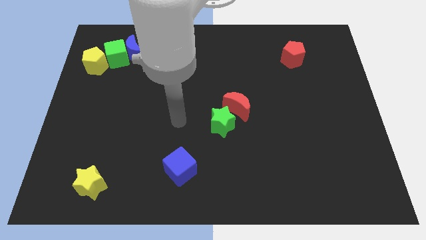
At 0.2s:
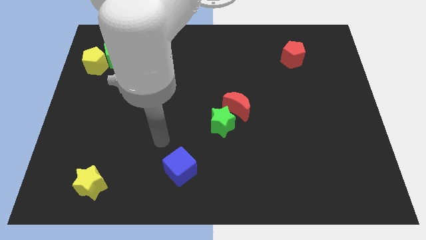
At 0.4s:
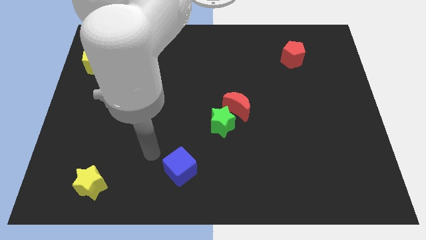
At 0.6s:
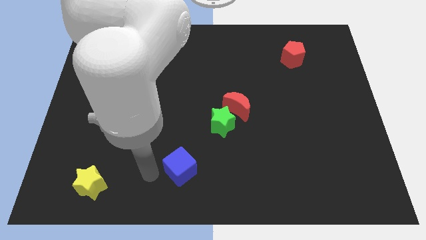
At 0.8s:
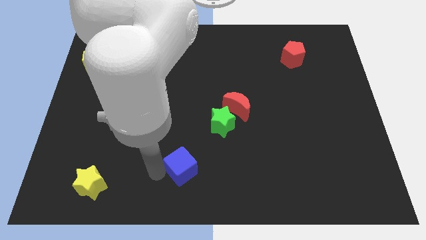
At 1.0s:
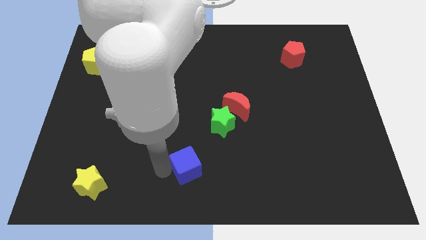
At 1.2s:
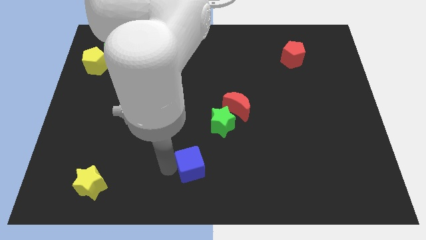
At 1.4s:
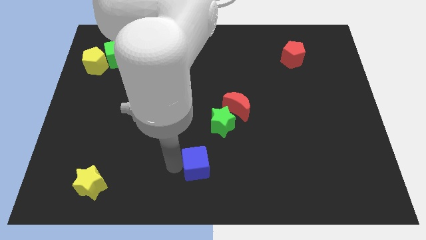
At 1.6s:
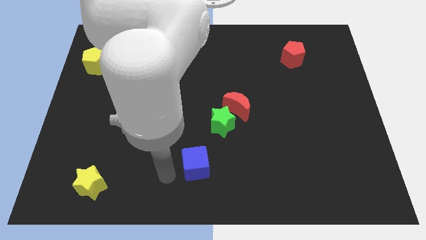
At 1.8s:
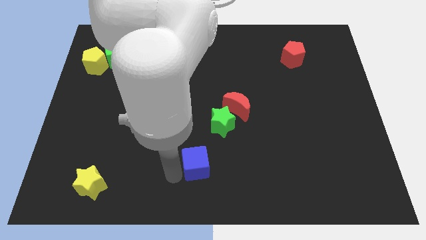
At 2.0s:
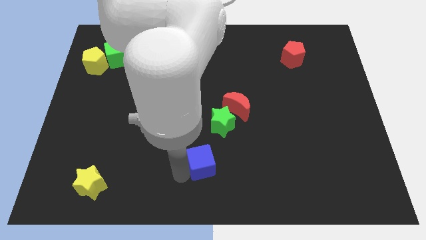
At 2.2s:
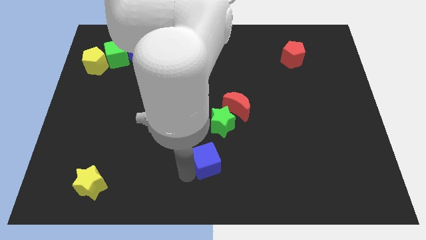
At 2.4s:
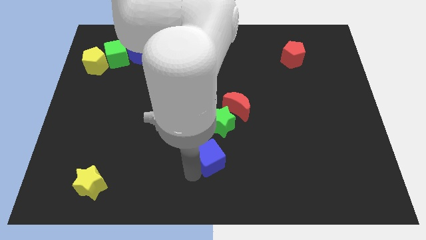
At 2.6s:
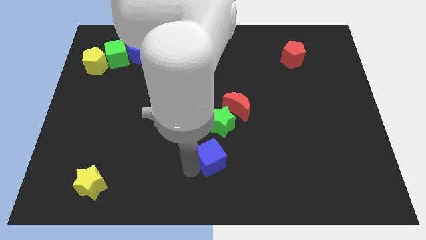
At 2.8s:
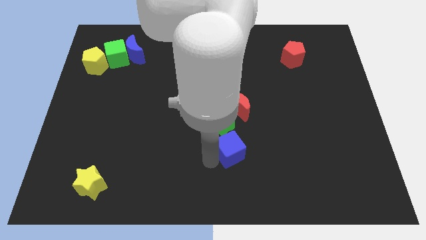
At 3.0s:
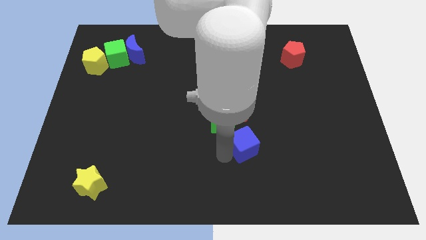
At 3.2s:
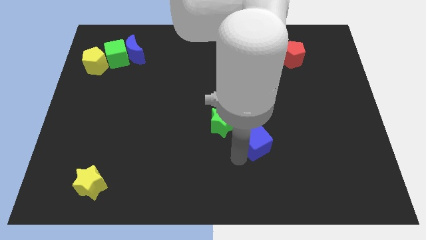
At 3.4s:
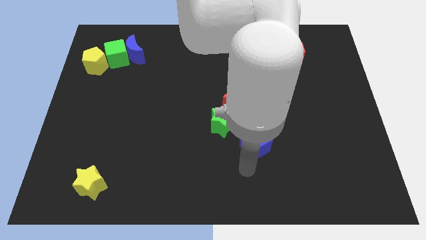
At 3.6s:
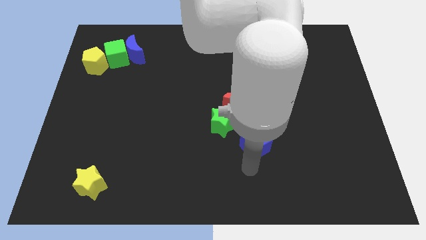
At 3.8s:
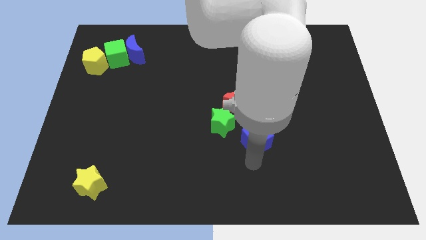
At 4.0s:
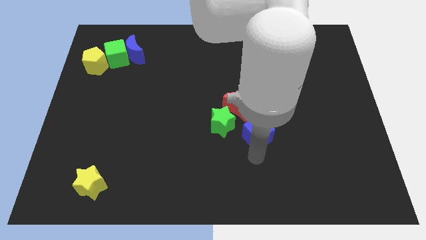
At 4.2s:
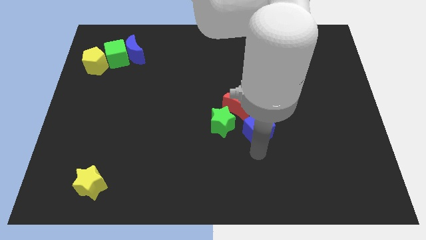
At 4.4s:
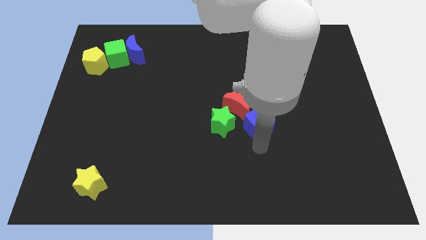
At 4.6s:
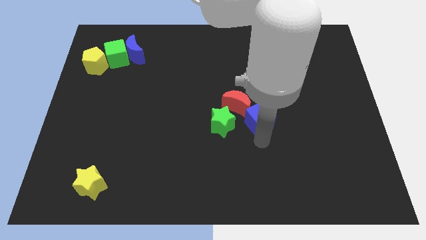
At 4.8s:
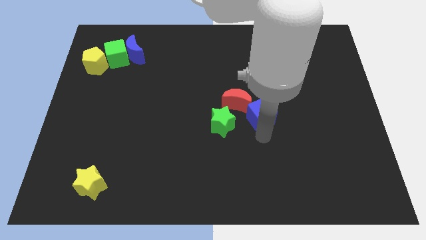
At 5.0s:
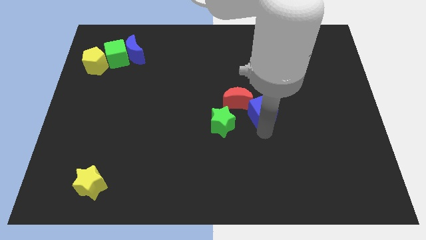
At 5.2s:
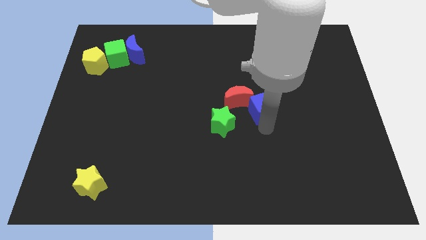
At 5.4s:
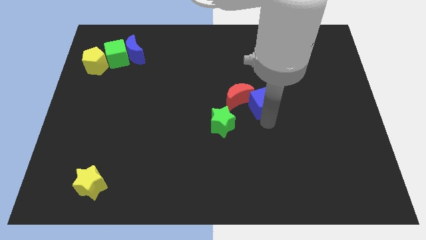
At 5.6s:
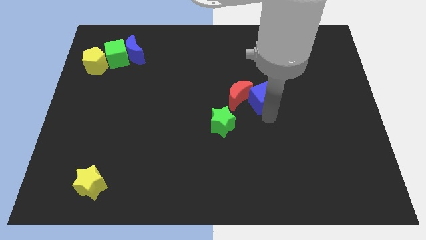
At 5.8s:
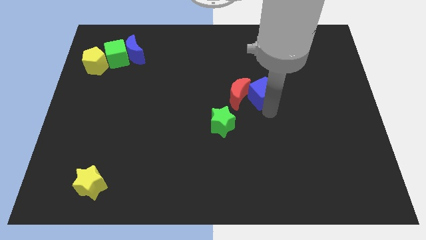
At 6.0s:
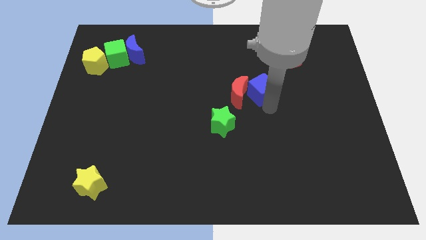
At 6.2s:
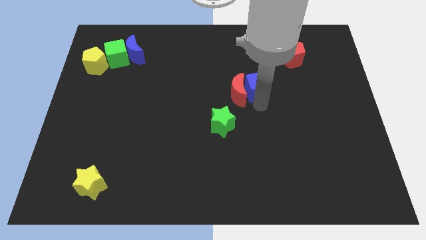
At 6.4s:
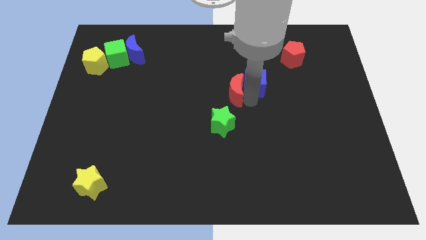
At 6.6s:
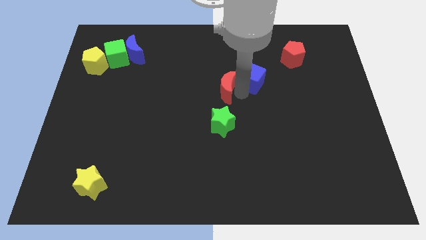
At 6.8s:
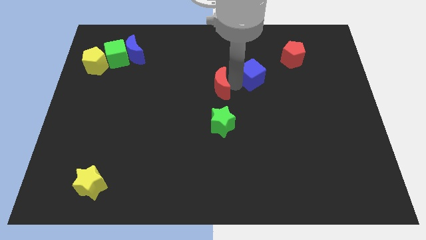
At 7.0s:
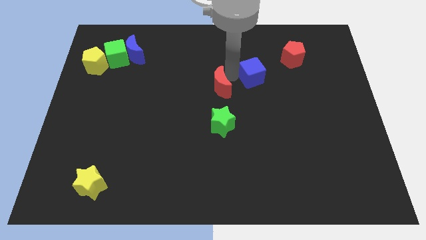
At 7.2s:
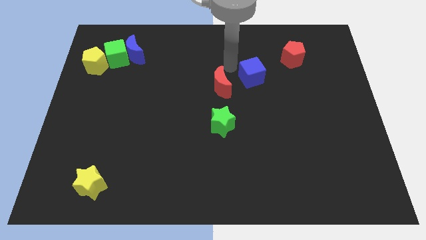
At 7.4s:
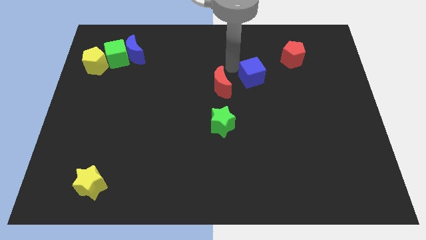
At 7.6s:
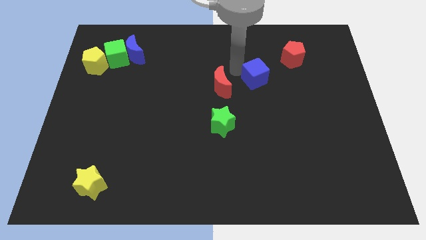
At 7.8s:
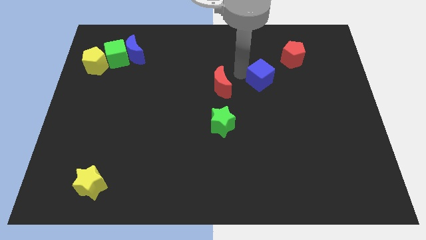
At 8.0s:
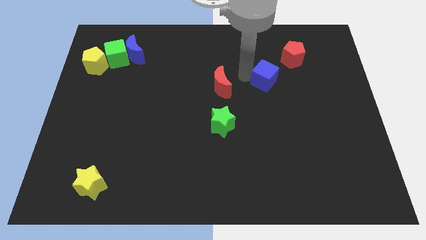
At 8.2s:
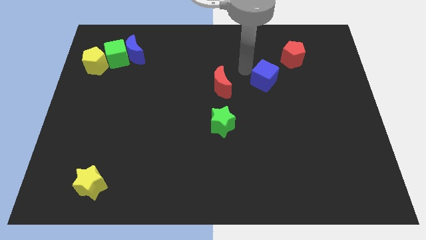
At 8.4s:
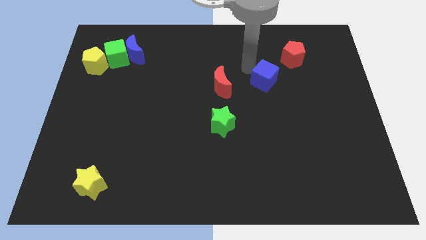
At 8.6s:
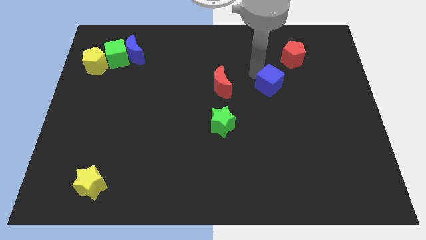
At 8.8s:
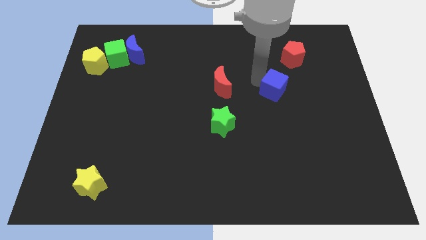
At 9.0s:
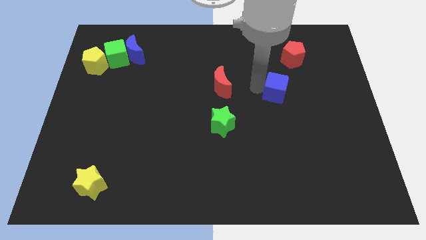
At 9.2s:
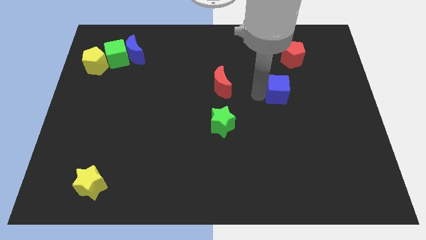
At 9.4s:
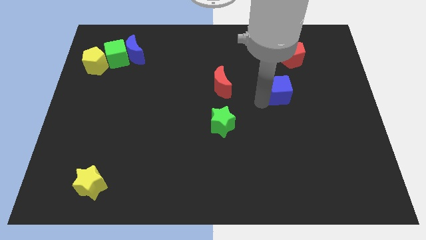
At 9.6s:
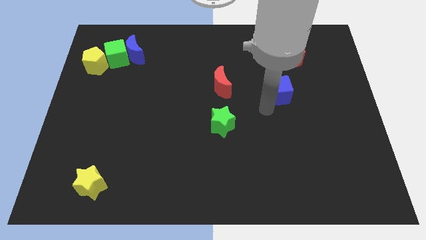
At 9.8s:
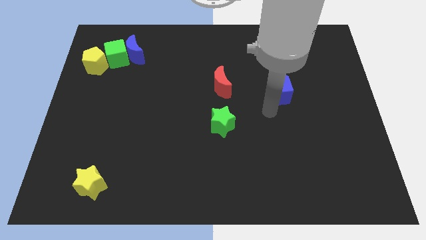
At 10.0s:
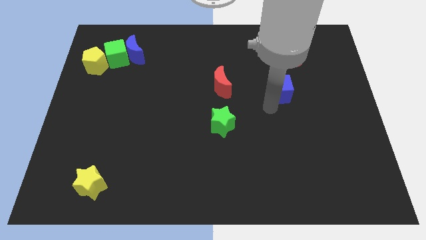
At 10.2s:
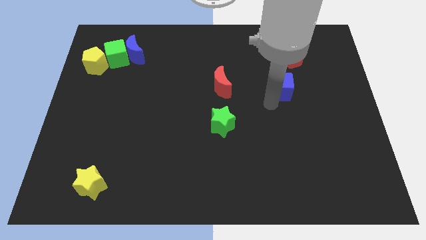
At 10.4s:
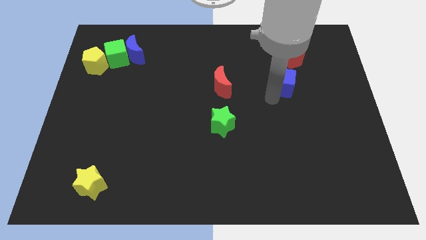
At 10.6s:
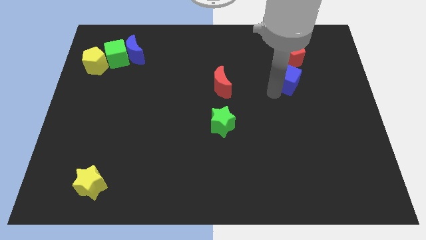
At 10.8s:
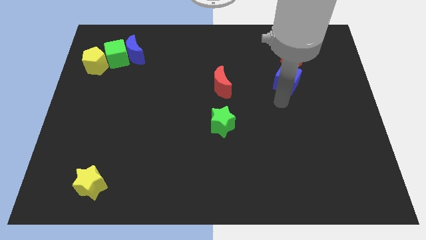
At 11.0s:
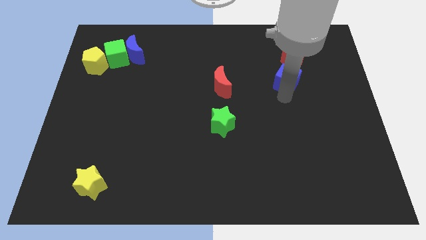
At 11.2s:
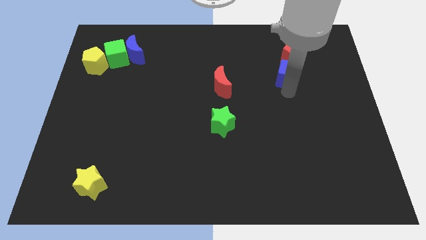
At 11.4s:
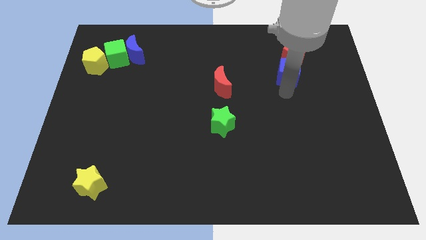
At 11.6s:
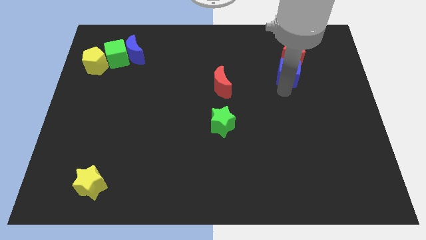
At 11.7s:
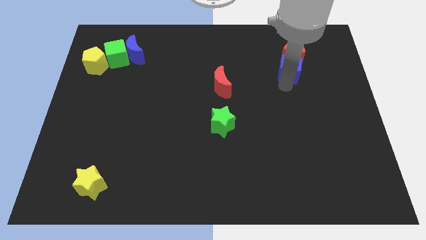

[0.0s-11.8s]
slide the blue cube towards the red pentagon

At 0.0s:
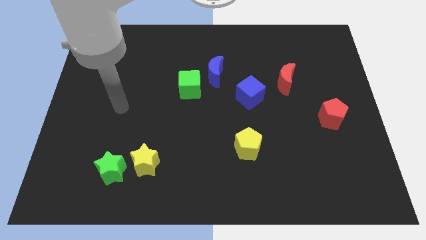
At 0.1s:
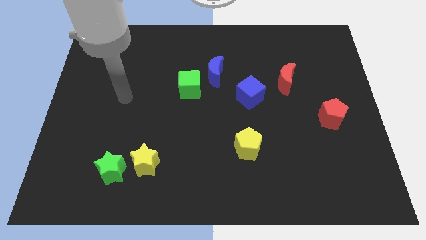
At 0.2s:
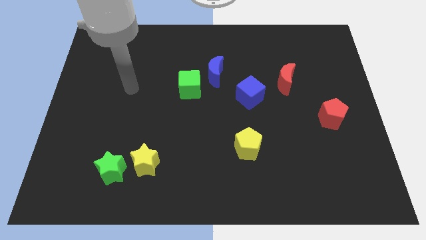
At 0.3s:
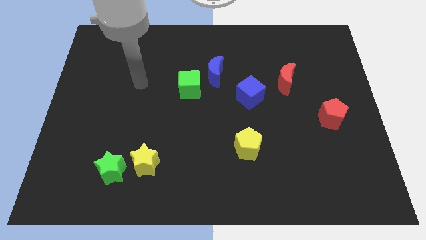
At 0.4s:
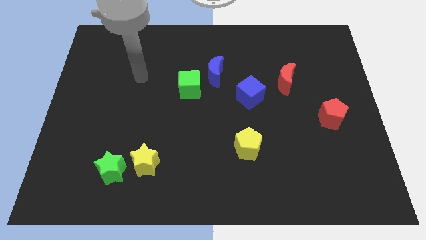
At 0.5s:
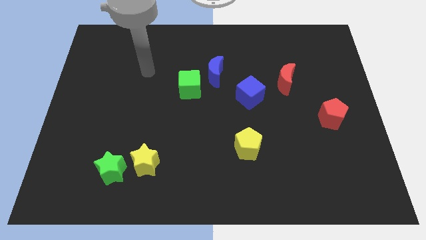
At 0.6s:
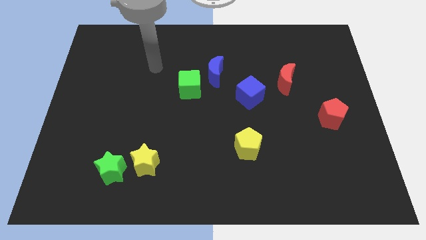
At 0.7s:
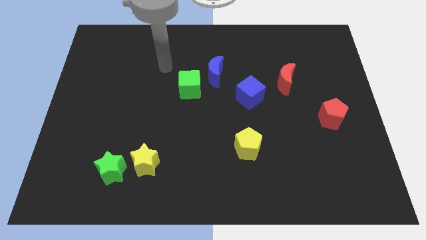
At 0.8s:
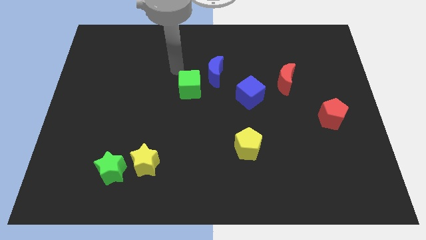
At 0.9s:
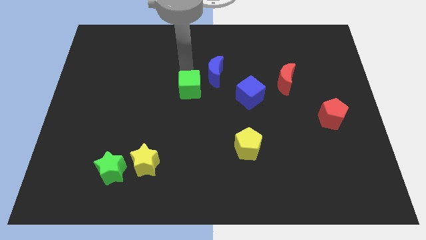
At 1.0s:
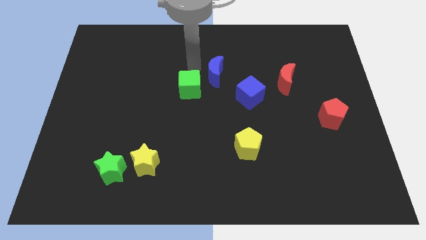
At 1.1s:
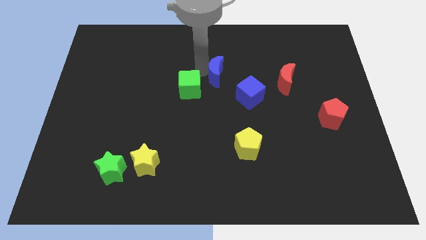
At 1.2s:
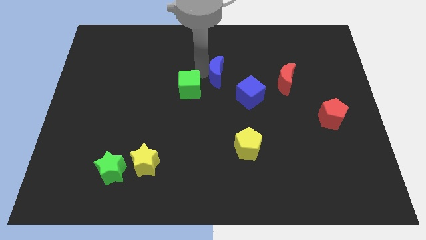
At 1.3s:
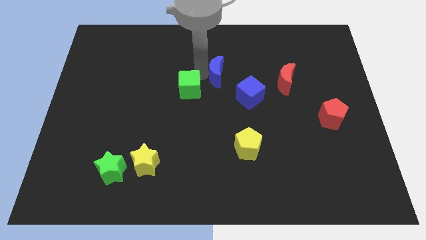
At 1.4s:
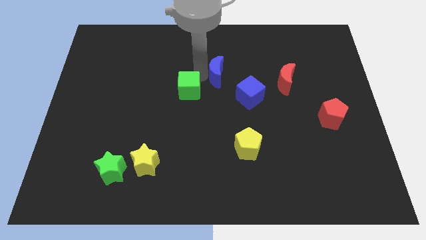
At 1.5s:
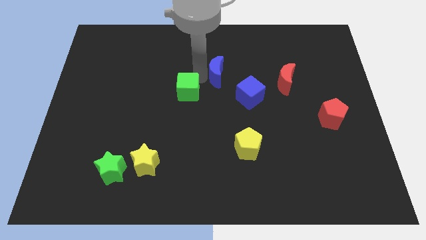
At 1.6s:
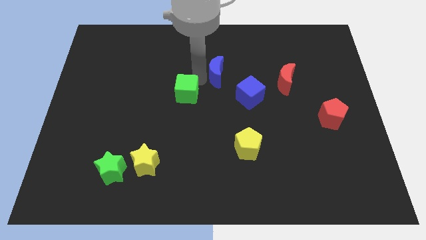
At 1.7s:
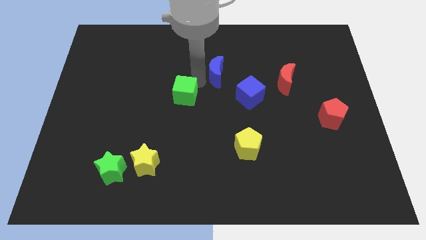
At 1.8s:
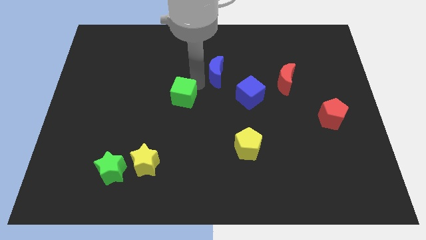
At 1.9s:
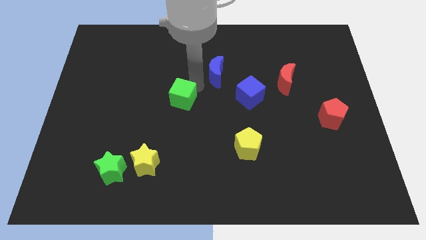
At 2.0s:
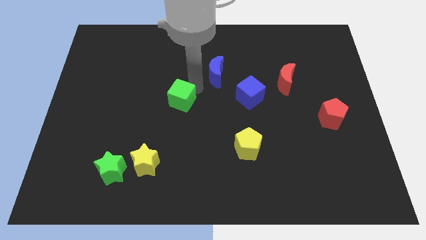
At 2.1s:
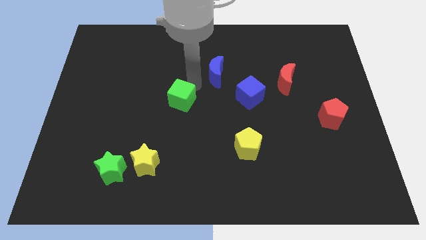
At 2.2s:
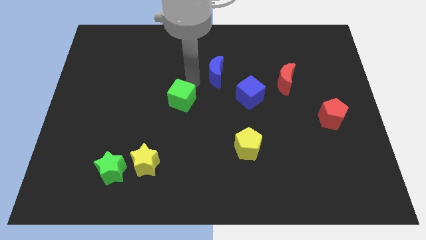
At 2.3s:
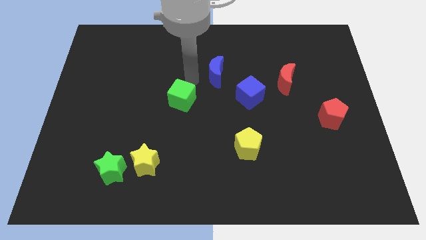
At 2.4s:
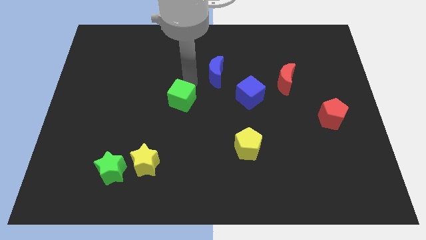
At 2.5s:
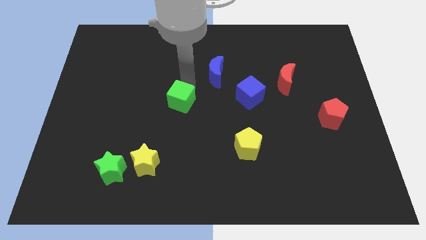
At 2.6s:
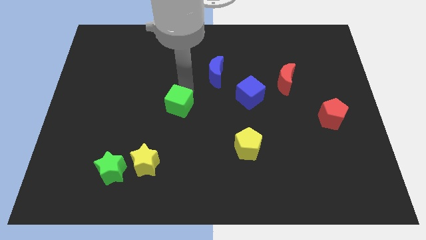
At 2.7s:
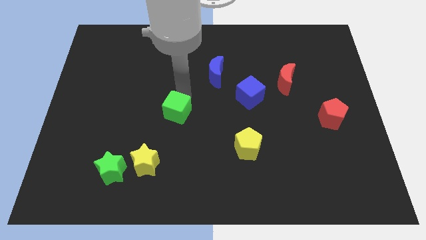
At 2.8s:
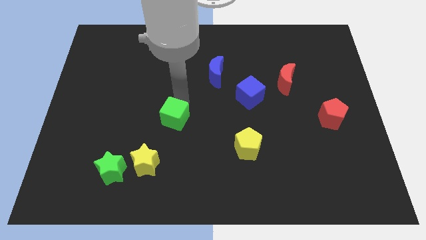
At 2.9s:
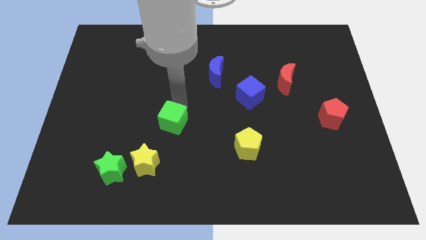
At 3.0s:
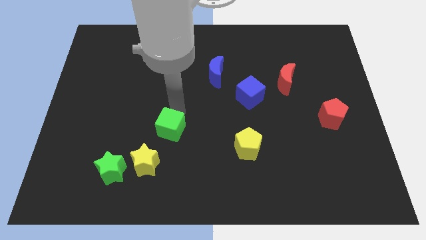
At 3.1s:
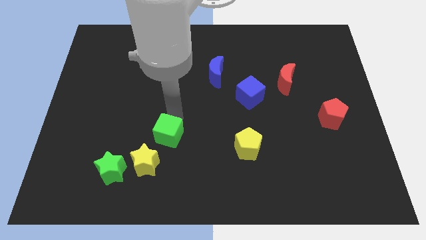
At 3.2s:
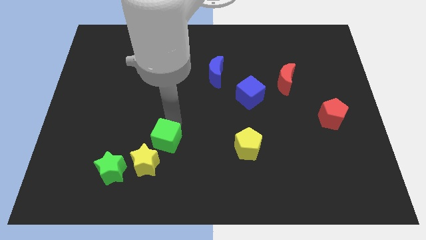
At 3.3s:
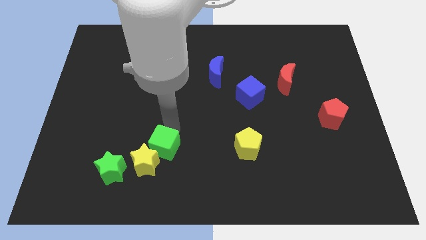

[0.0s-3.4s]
move the green cube to the yellow star
